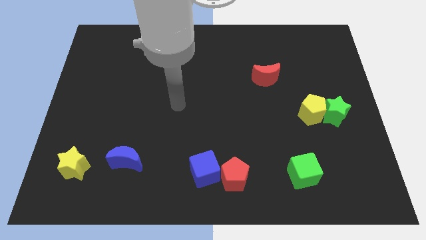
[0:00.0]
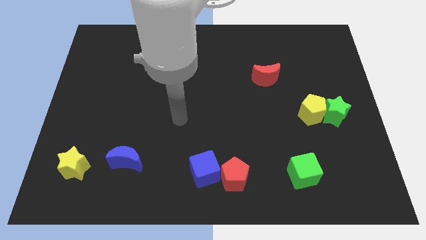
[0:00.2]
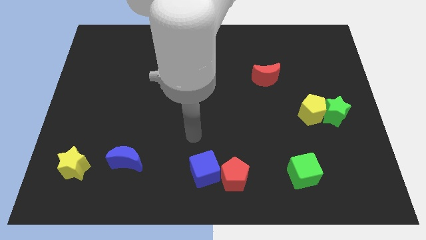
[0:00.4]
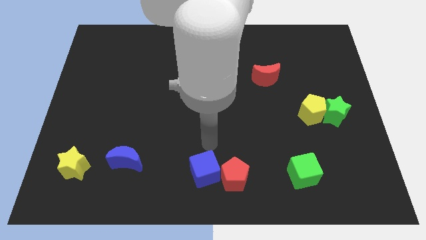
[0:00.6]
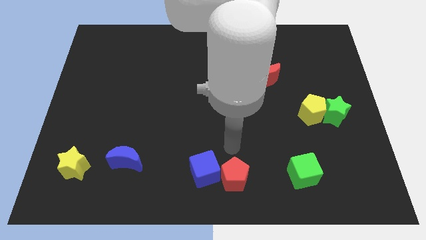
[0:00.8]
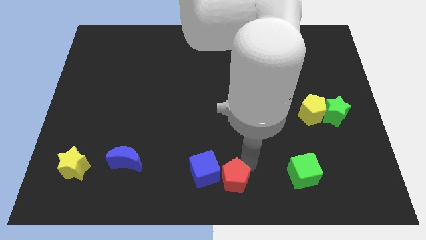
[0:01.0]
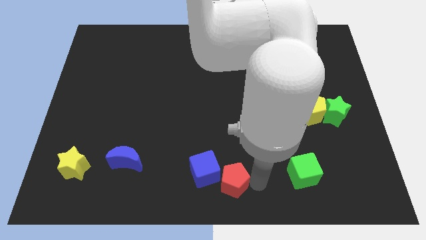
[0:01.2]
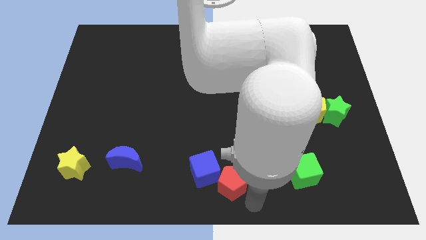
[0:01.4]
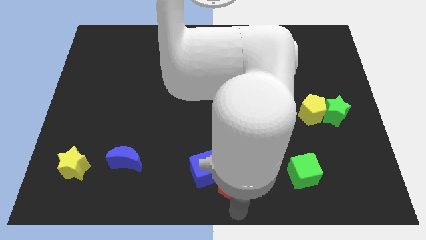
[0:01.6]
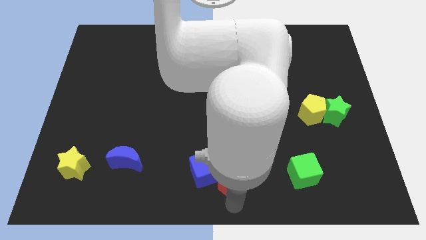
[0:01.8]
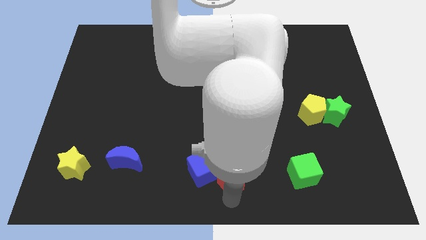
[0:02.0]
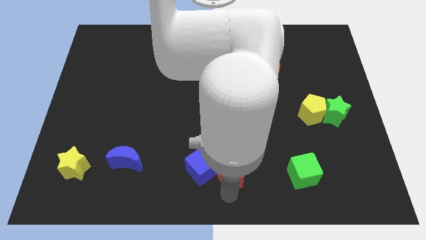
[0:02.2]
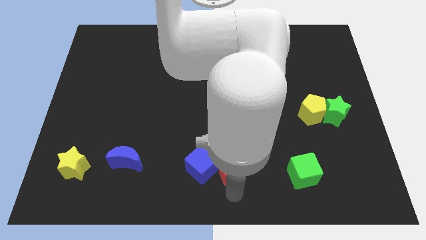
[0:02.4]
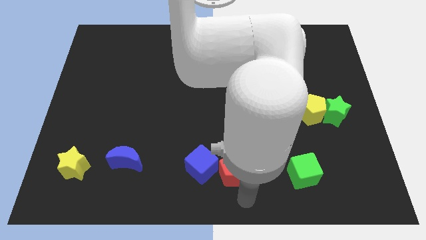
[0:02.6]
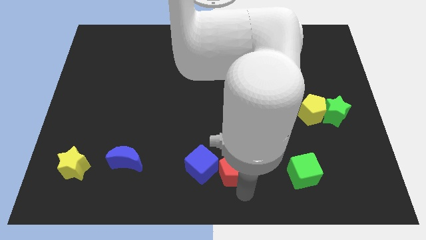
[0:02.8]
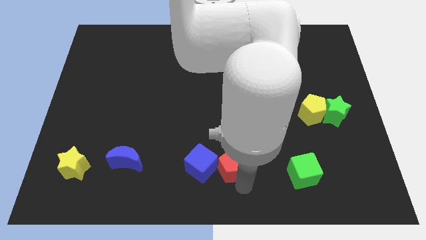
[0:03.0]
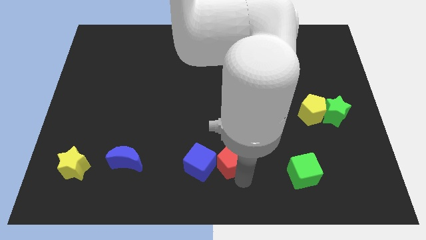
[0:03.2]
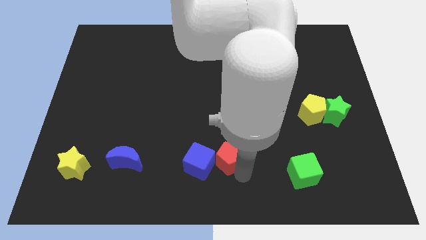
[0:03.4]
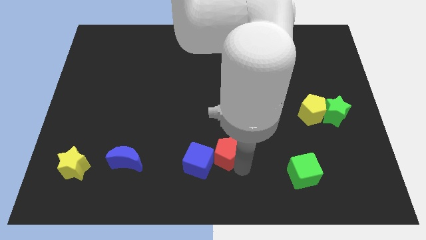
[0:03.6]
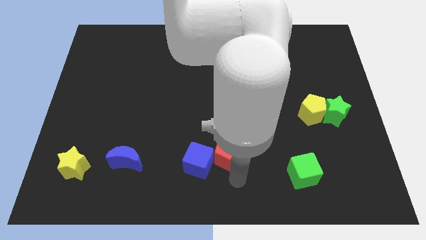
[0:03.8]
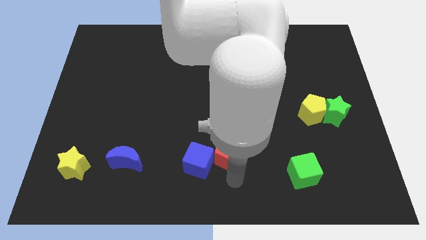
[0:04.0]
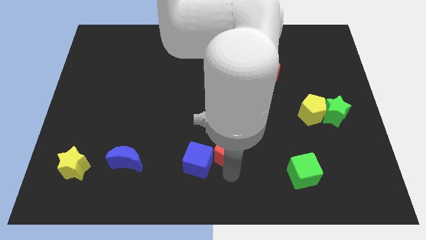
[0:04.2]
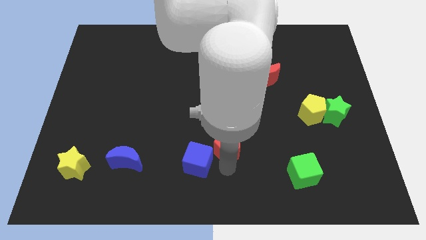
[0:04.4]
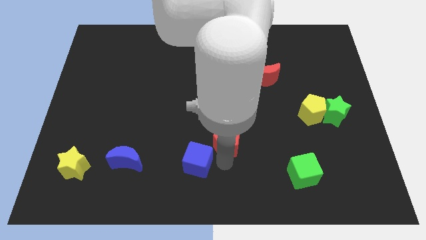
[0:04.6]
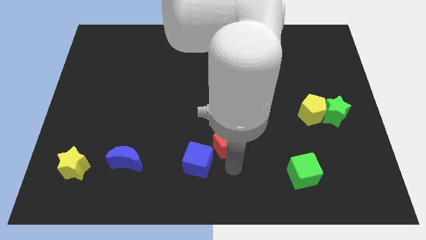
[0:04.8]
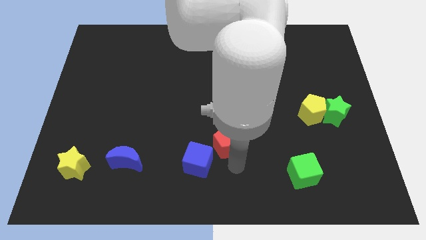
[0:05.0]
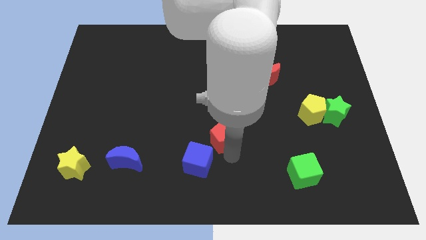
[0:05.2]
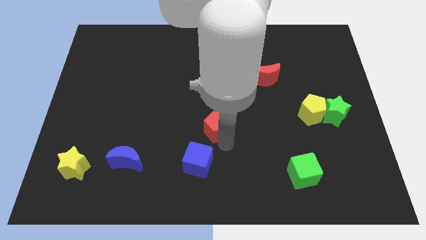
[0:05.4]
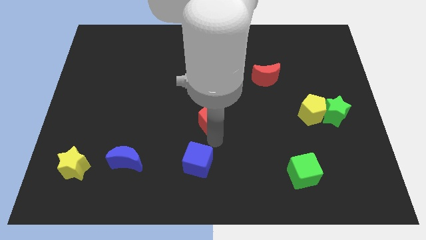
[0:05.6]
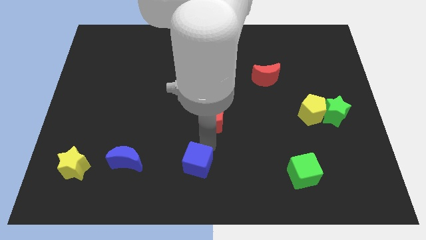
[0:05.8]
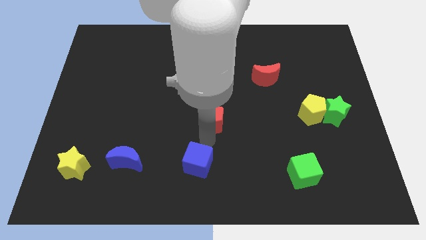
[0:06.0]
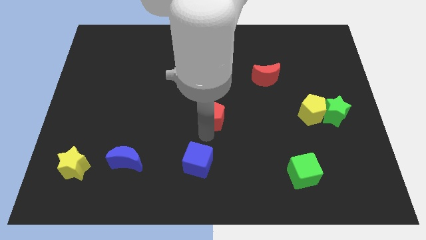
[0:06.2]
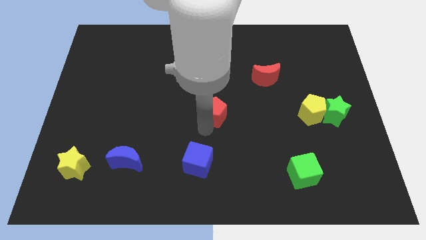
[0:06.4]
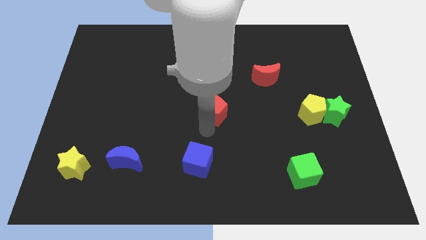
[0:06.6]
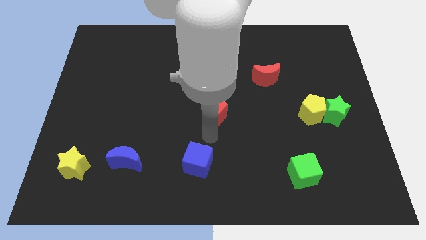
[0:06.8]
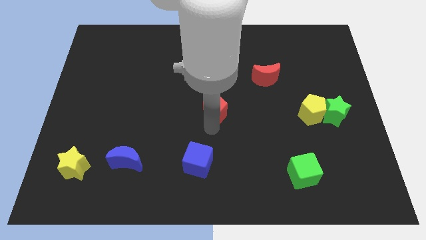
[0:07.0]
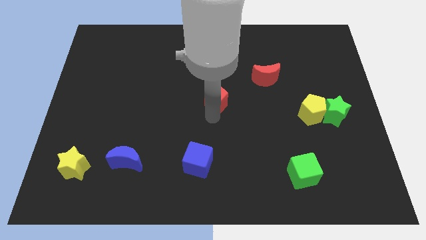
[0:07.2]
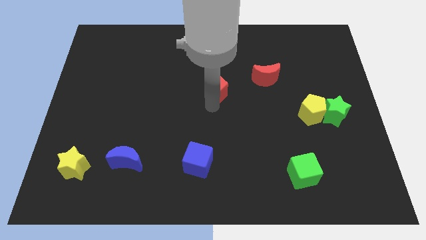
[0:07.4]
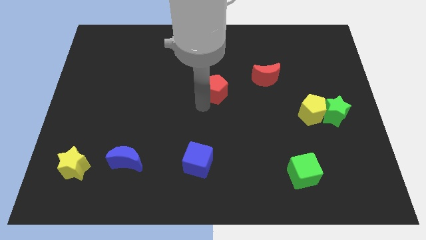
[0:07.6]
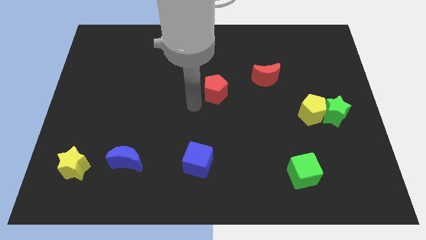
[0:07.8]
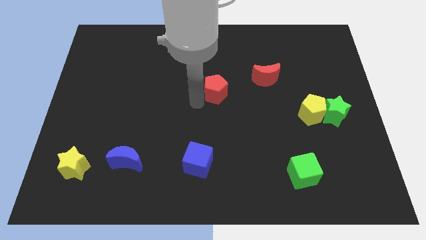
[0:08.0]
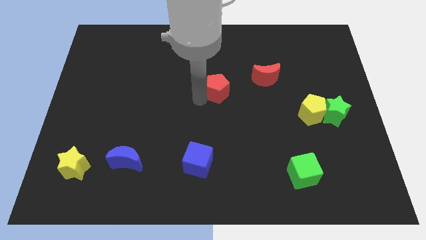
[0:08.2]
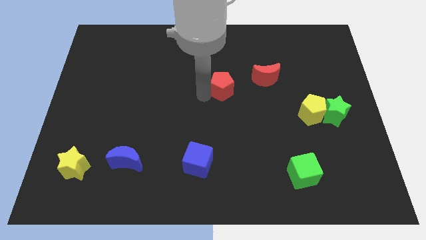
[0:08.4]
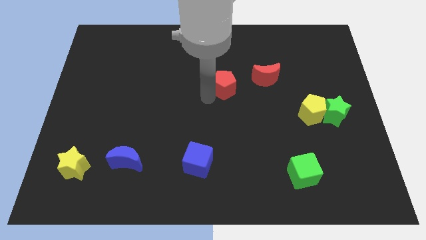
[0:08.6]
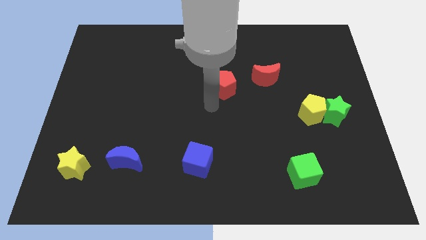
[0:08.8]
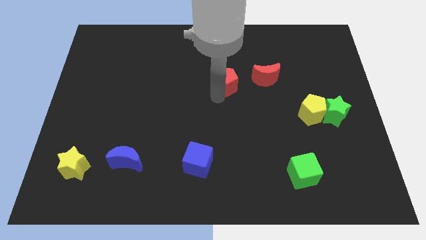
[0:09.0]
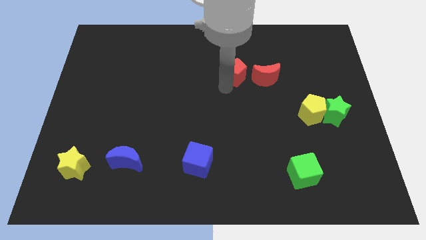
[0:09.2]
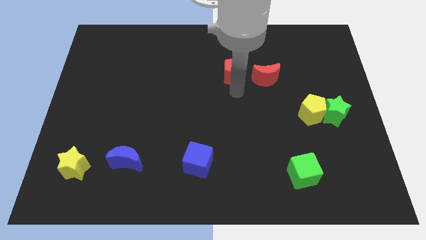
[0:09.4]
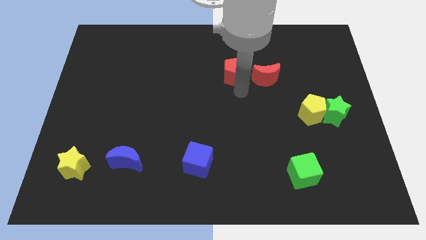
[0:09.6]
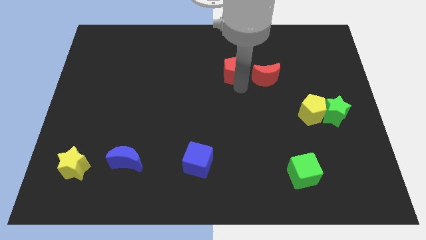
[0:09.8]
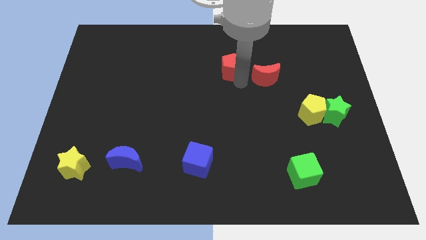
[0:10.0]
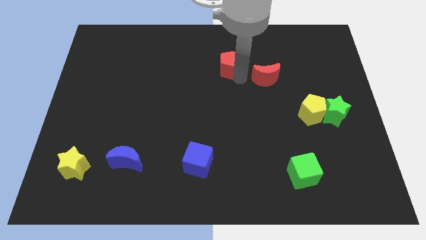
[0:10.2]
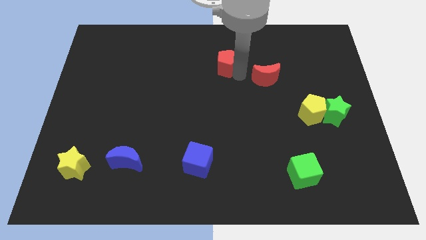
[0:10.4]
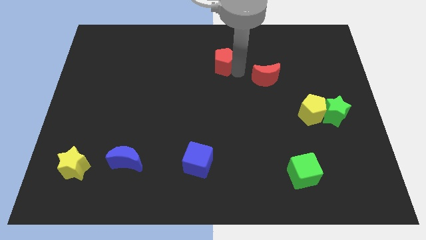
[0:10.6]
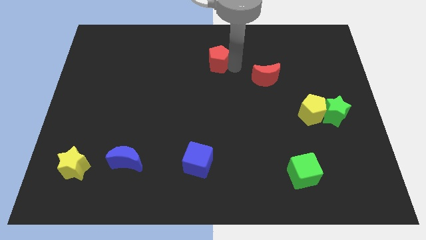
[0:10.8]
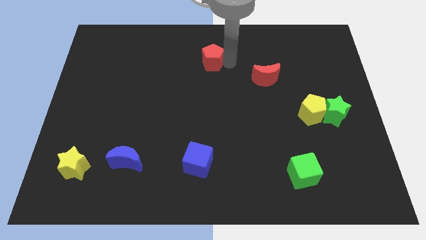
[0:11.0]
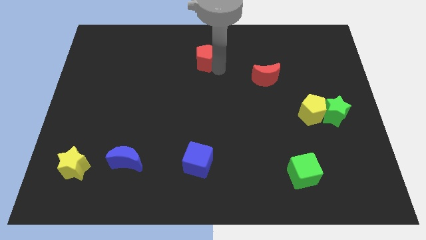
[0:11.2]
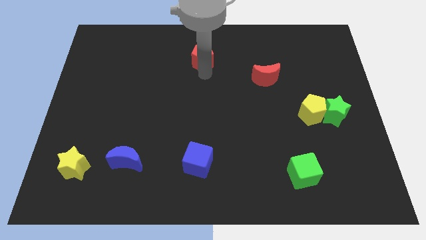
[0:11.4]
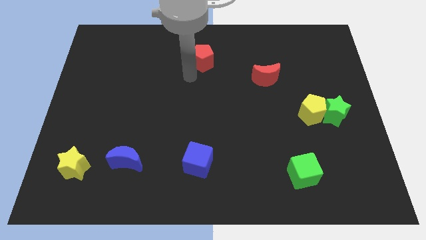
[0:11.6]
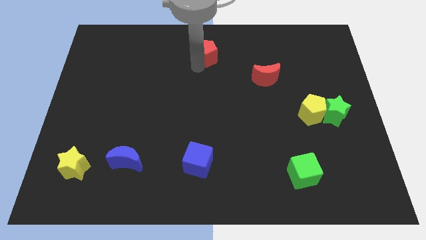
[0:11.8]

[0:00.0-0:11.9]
put the red pentagon to the towards your base

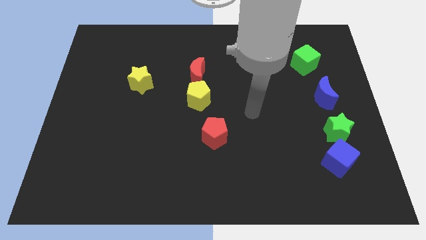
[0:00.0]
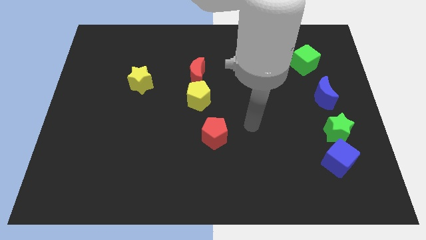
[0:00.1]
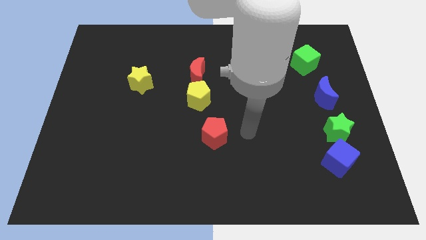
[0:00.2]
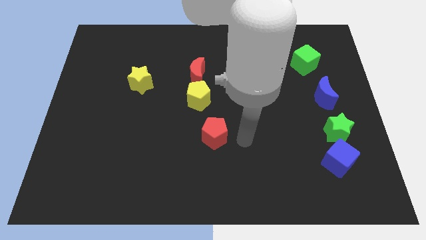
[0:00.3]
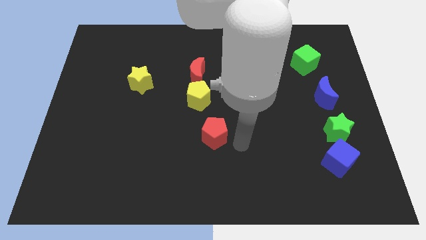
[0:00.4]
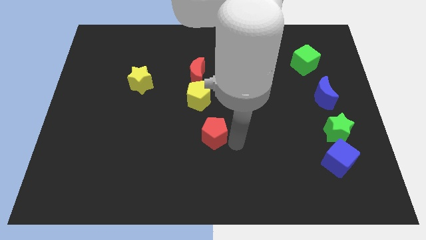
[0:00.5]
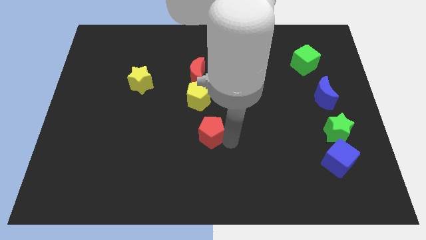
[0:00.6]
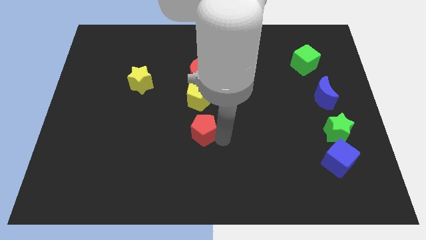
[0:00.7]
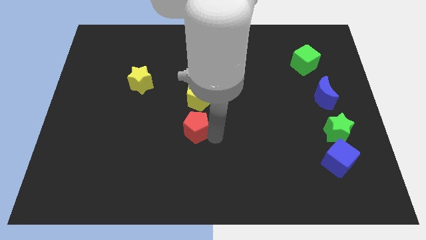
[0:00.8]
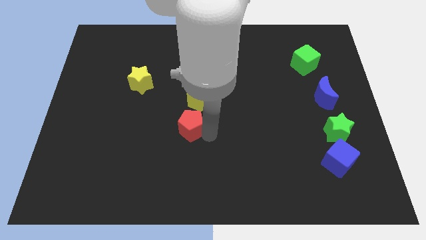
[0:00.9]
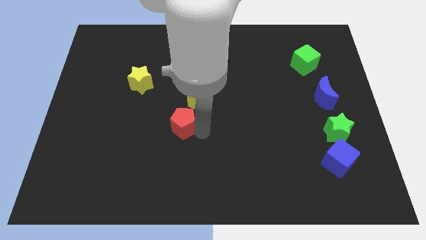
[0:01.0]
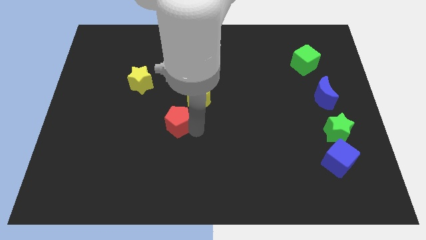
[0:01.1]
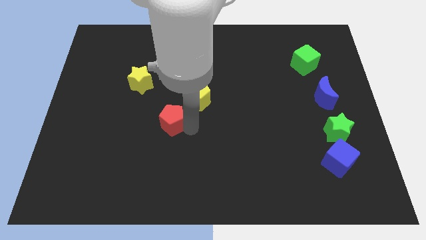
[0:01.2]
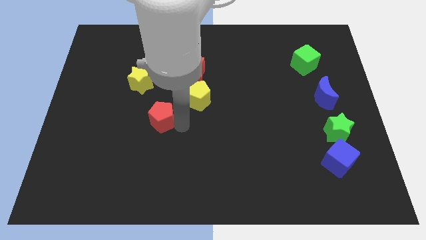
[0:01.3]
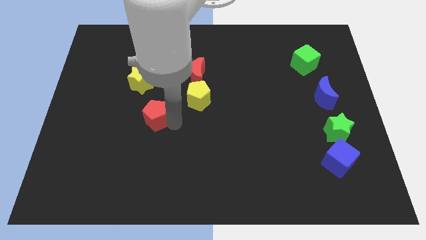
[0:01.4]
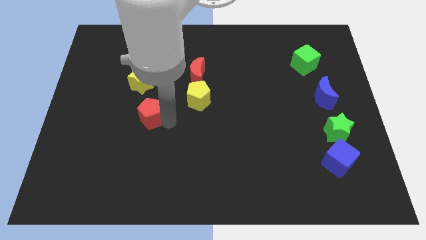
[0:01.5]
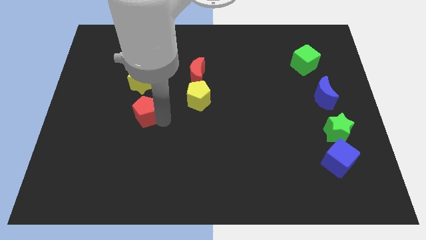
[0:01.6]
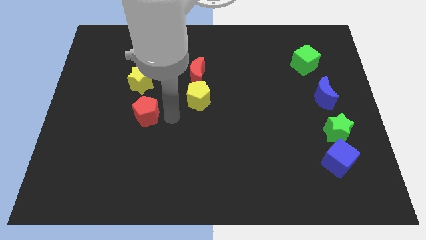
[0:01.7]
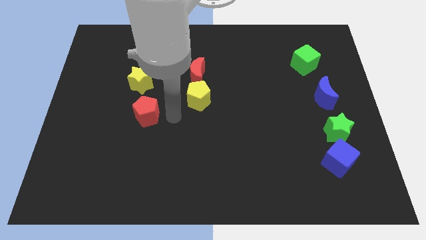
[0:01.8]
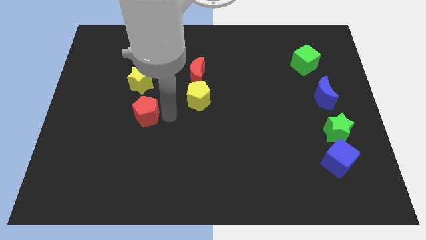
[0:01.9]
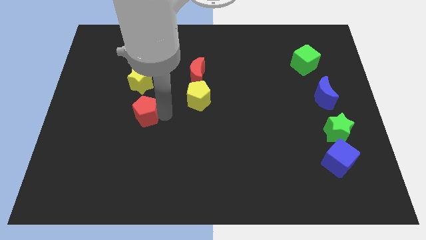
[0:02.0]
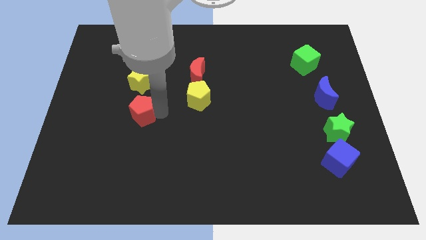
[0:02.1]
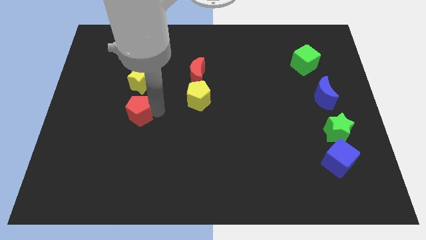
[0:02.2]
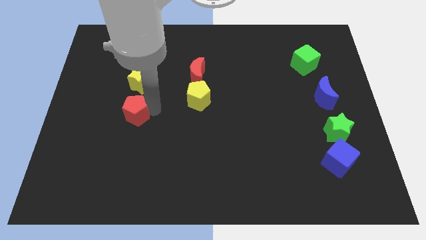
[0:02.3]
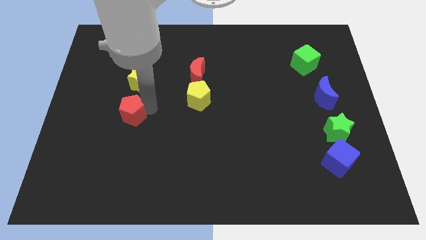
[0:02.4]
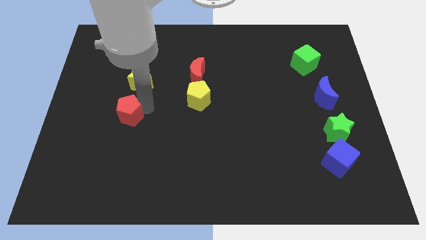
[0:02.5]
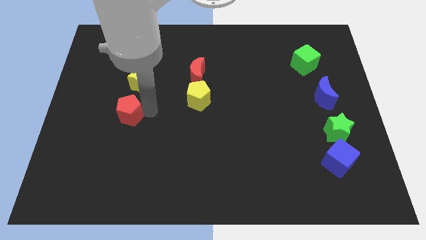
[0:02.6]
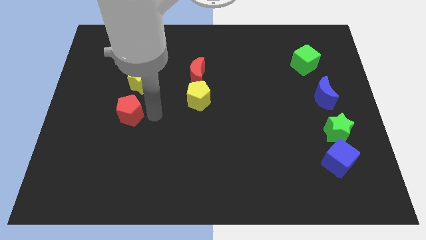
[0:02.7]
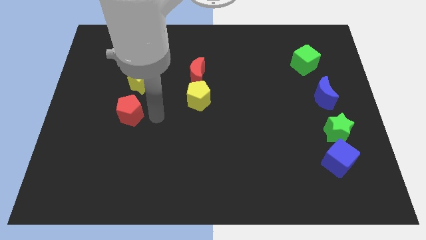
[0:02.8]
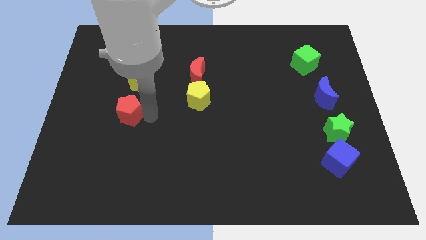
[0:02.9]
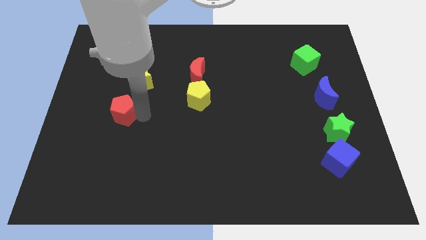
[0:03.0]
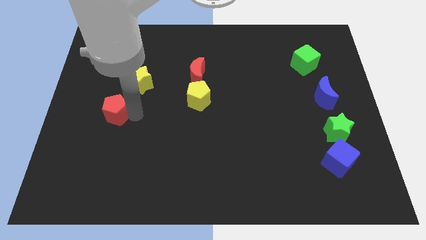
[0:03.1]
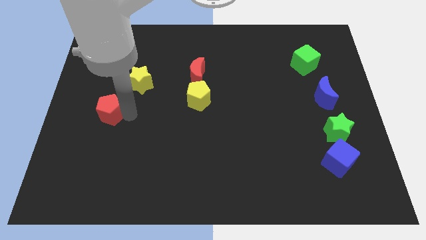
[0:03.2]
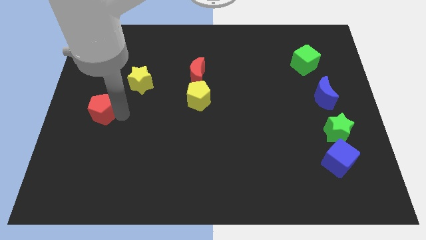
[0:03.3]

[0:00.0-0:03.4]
put the red pentagon to the left side of the board
